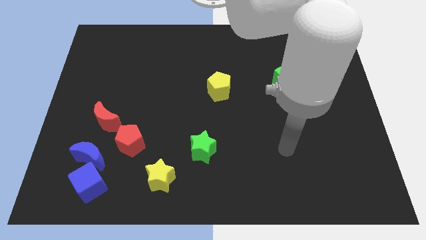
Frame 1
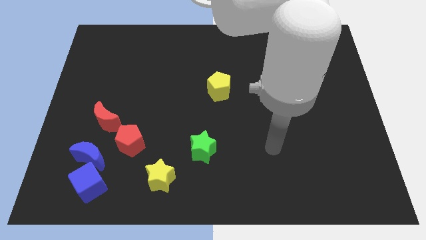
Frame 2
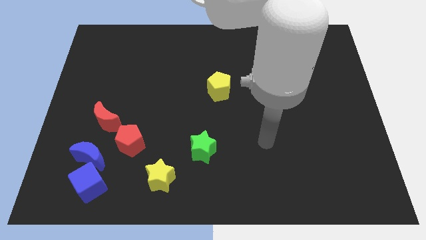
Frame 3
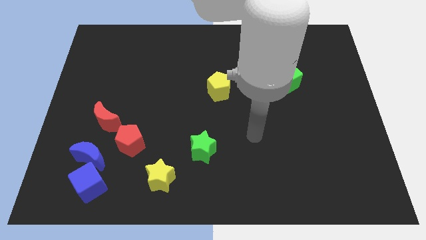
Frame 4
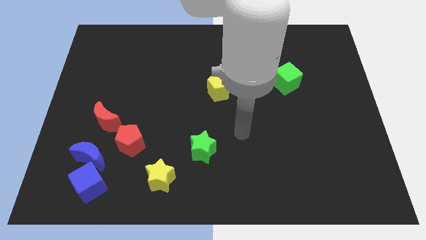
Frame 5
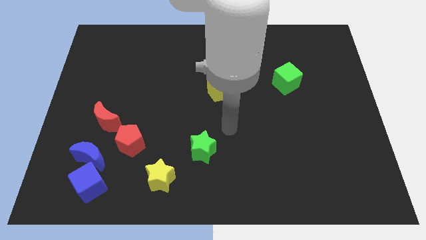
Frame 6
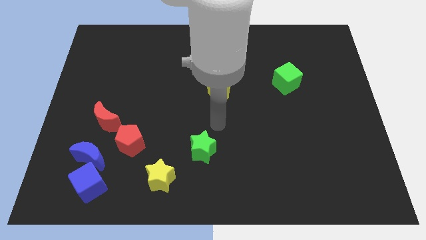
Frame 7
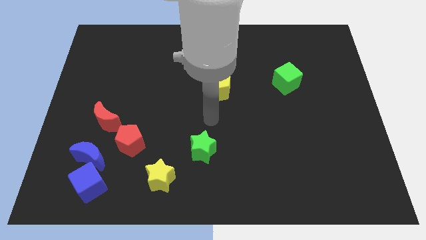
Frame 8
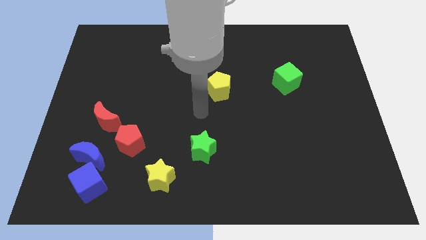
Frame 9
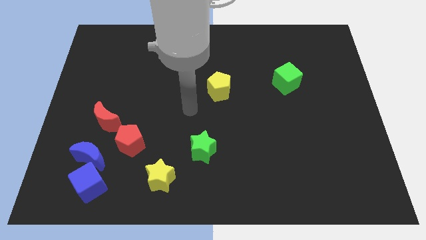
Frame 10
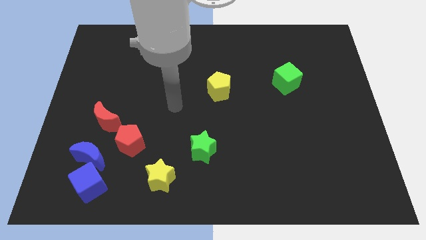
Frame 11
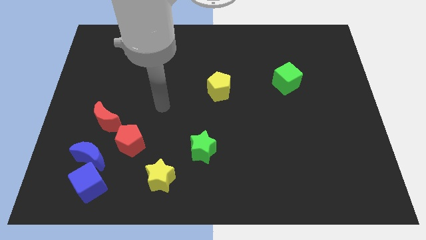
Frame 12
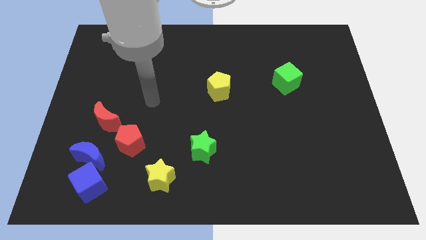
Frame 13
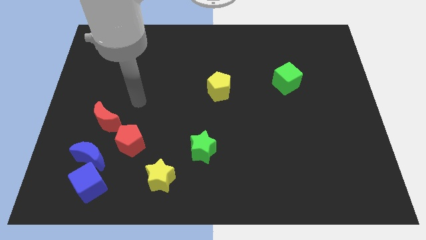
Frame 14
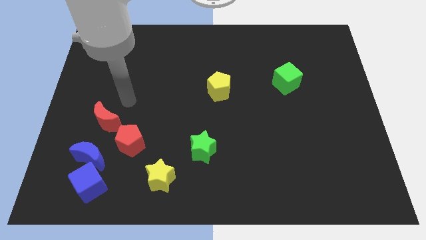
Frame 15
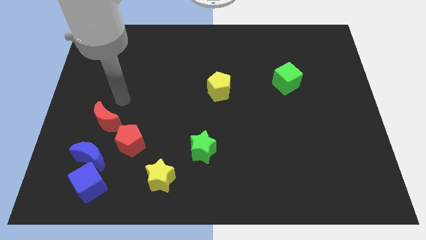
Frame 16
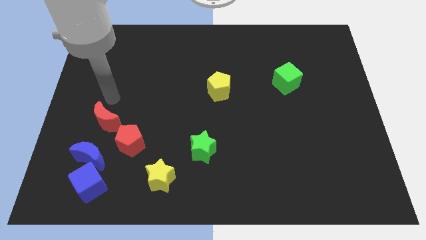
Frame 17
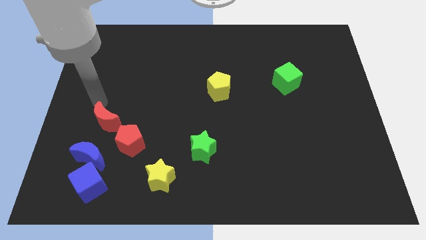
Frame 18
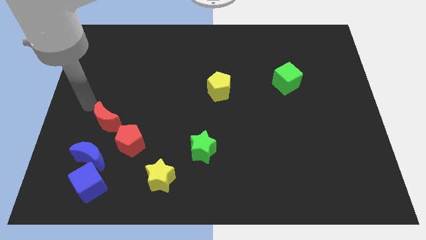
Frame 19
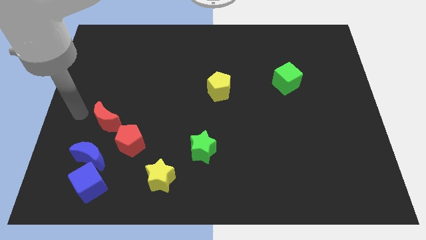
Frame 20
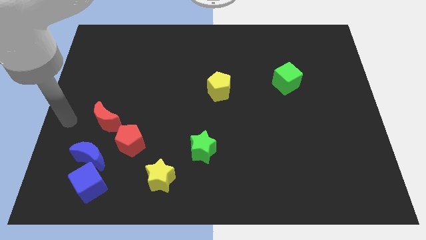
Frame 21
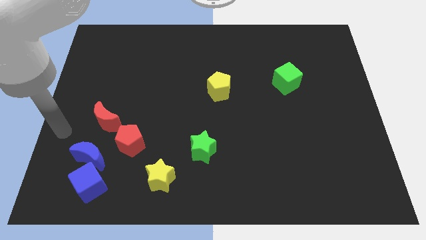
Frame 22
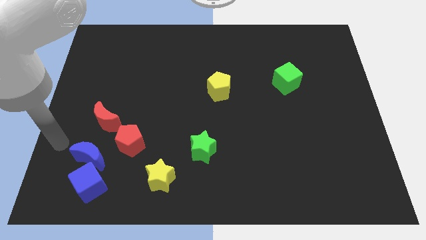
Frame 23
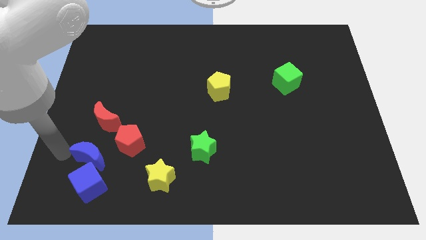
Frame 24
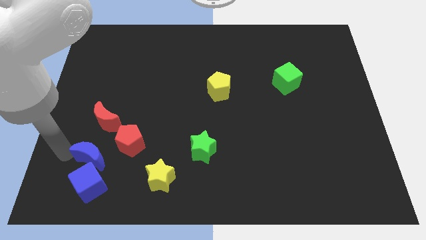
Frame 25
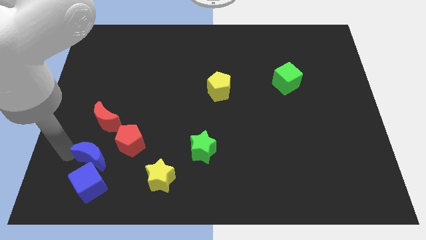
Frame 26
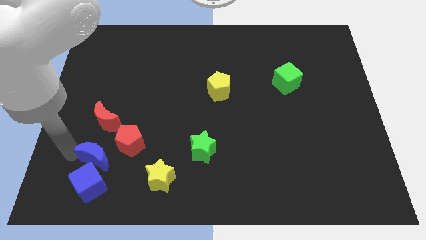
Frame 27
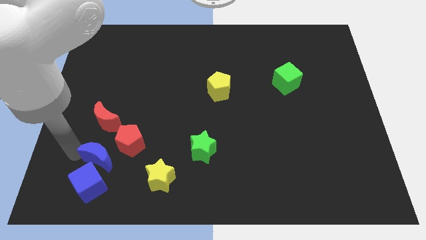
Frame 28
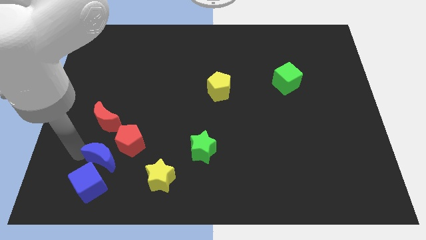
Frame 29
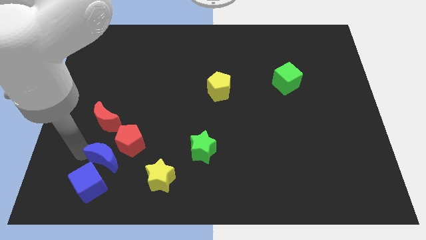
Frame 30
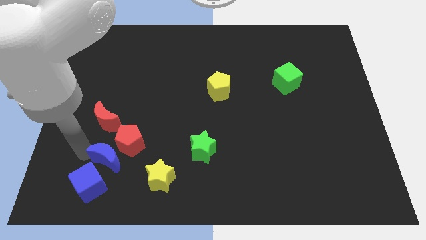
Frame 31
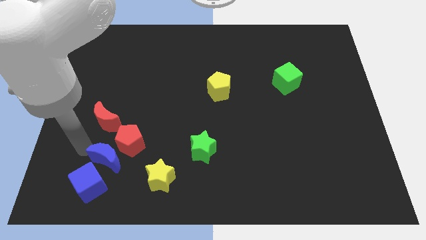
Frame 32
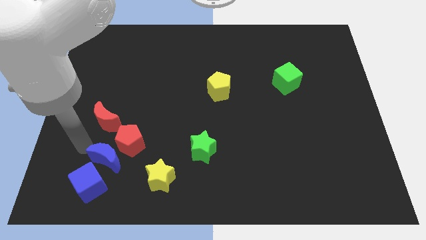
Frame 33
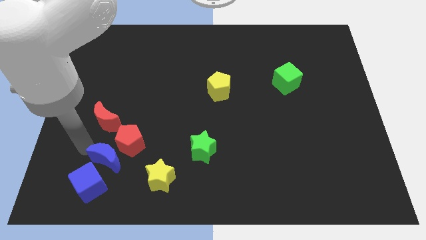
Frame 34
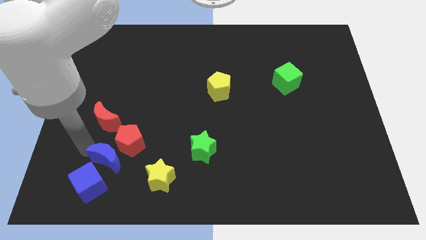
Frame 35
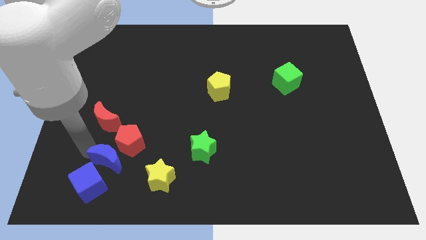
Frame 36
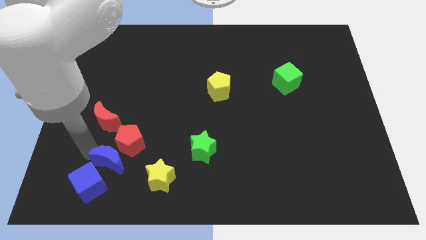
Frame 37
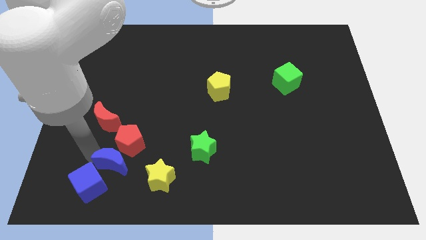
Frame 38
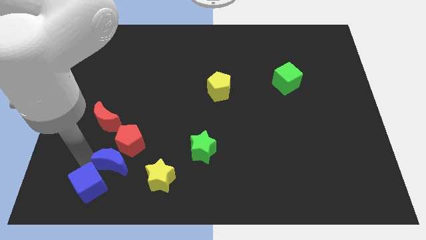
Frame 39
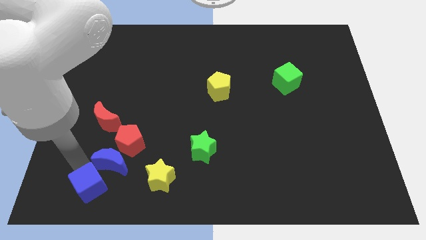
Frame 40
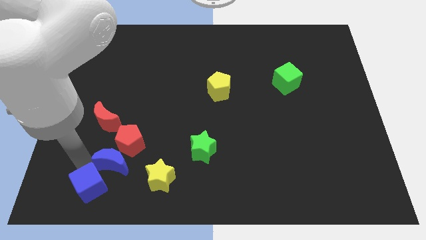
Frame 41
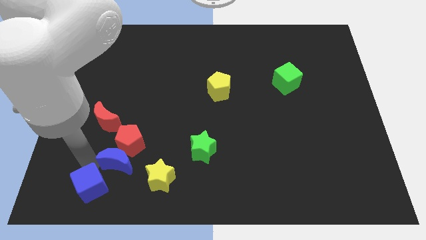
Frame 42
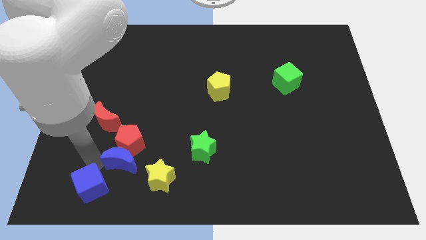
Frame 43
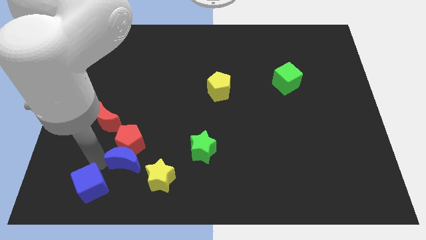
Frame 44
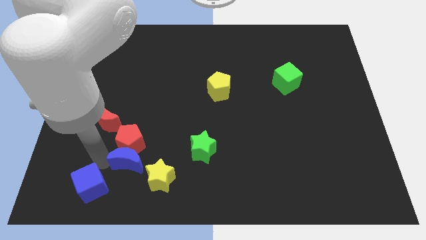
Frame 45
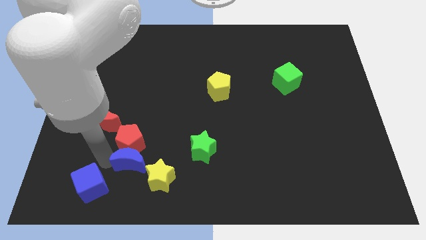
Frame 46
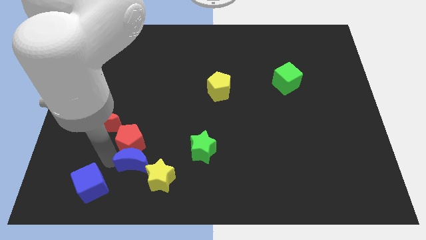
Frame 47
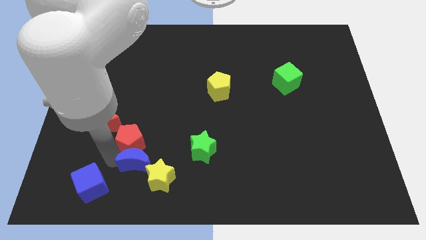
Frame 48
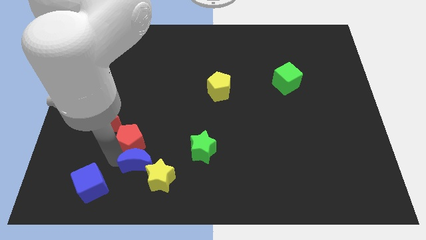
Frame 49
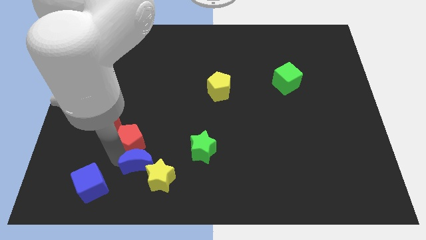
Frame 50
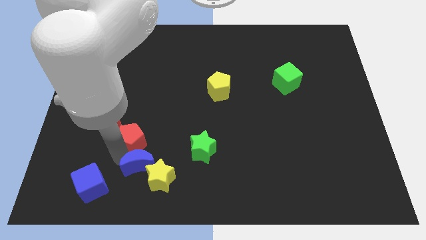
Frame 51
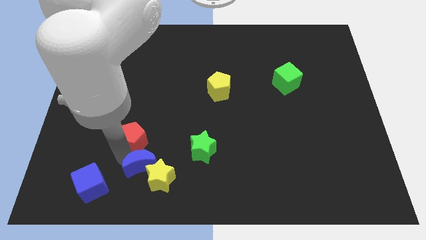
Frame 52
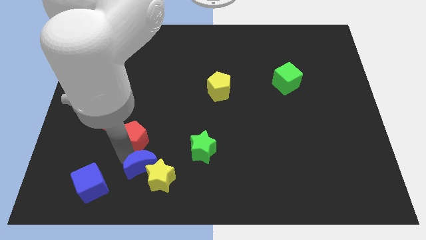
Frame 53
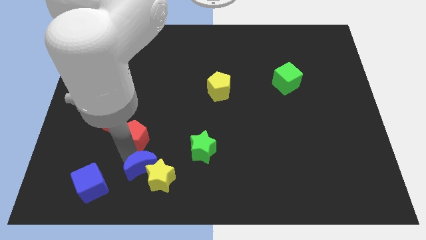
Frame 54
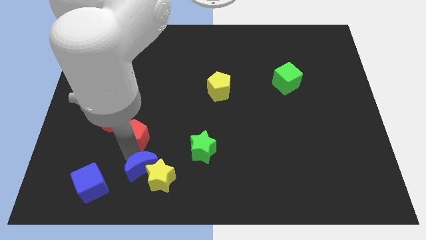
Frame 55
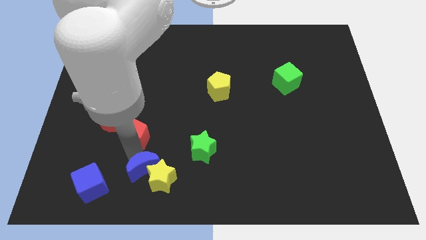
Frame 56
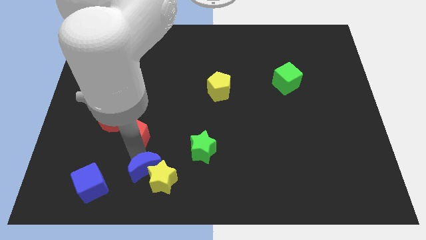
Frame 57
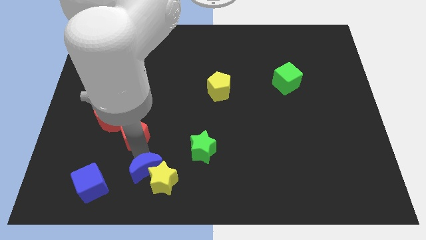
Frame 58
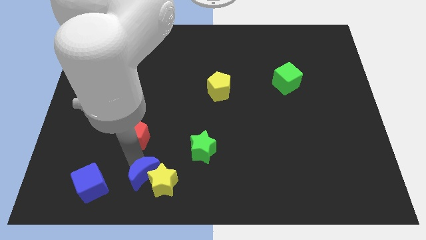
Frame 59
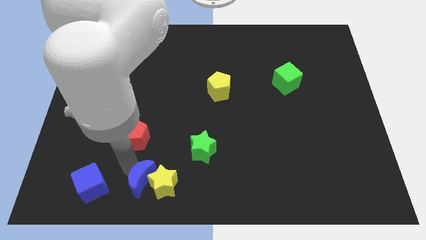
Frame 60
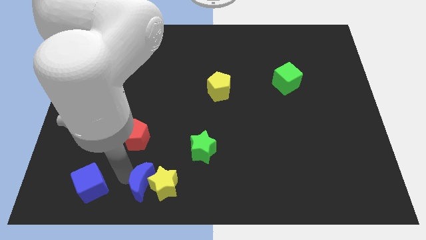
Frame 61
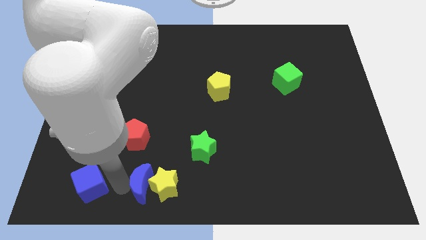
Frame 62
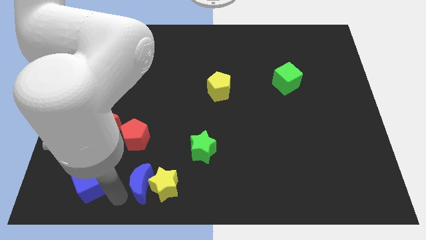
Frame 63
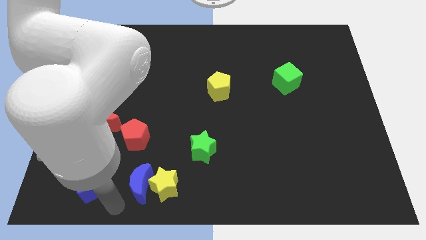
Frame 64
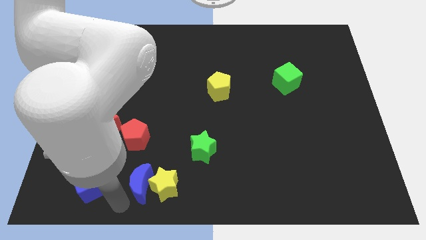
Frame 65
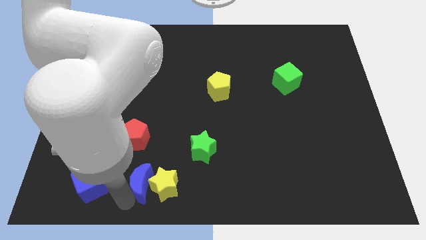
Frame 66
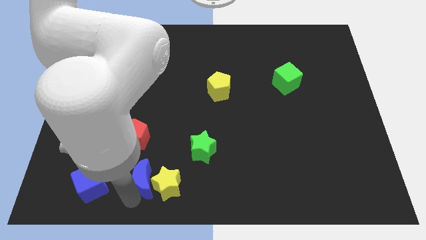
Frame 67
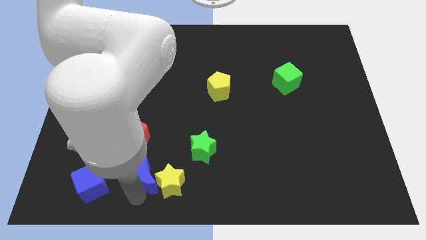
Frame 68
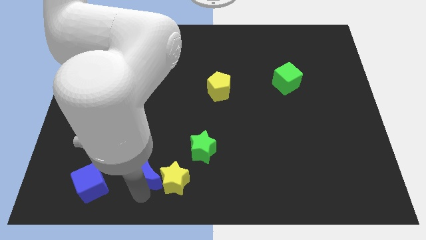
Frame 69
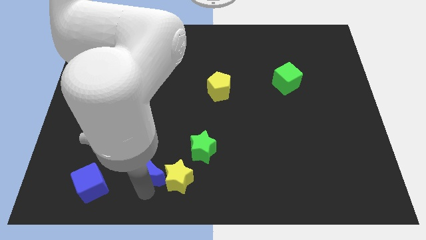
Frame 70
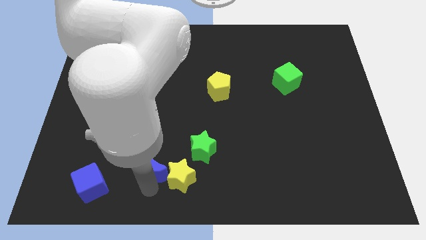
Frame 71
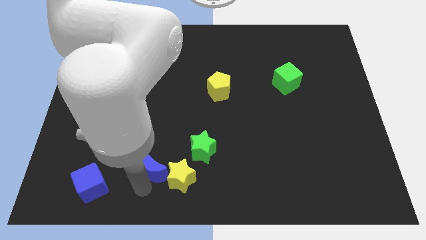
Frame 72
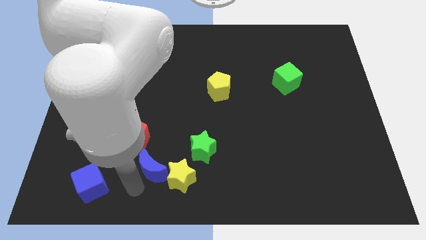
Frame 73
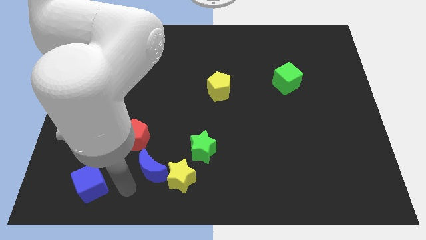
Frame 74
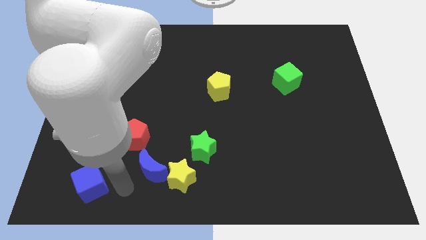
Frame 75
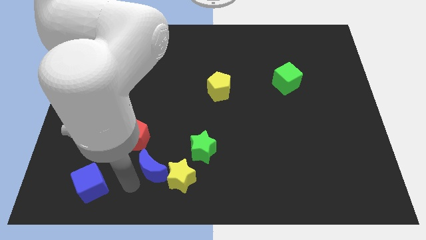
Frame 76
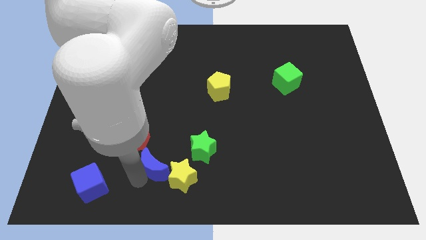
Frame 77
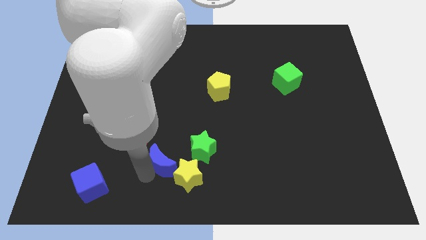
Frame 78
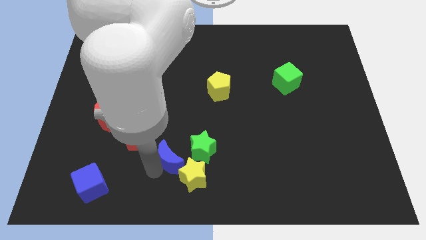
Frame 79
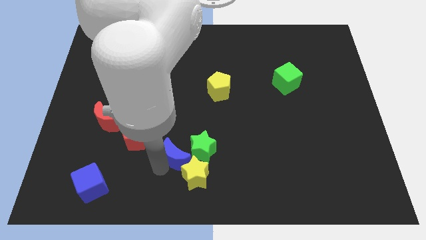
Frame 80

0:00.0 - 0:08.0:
move the blue moon close to the green star
